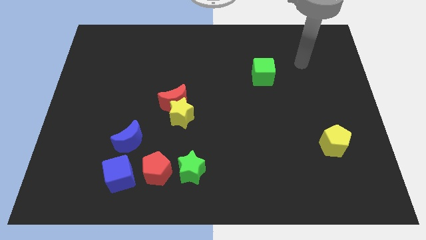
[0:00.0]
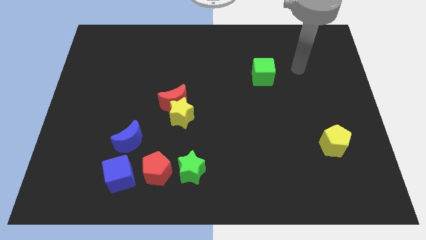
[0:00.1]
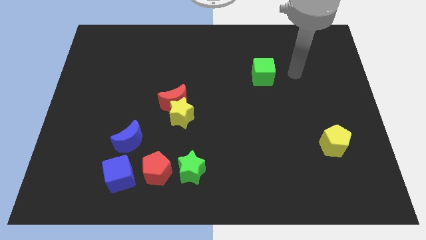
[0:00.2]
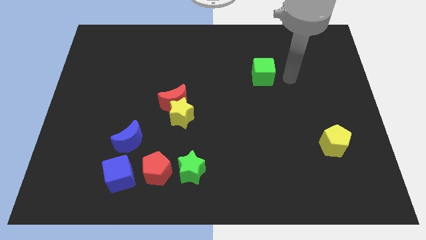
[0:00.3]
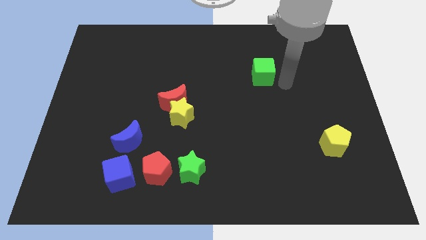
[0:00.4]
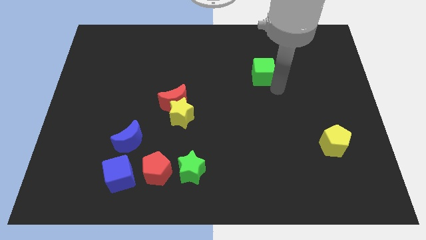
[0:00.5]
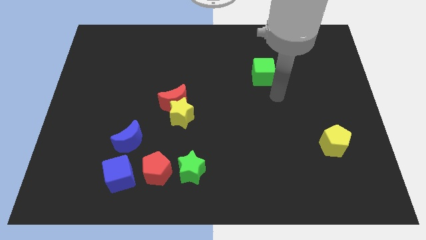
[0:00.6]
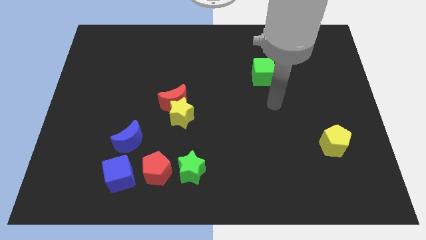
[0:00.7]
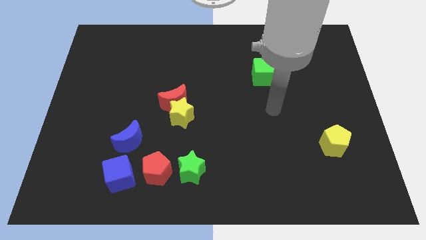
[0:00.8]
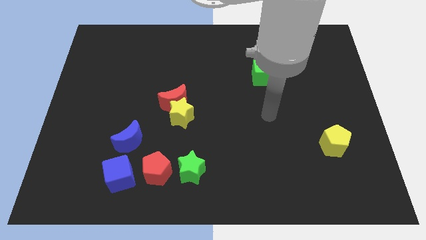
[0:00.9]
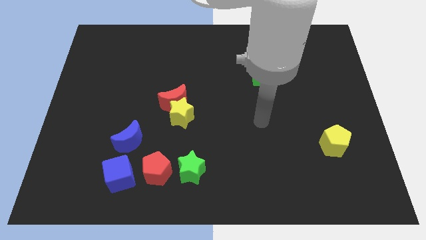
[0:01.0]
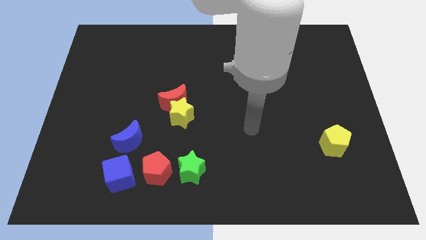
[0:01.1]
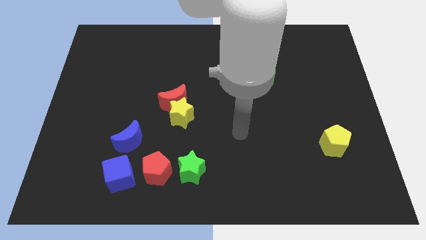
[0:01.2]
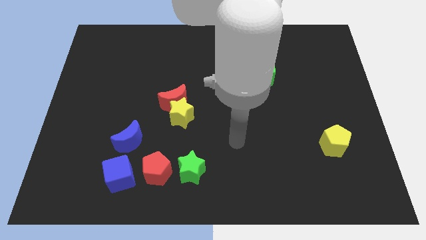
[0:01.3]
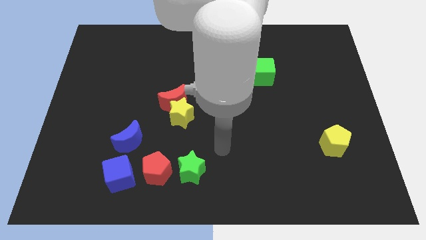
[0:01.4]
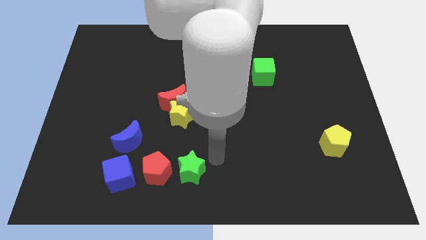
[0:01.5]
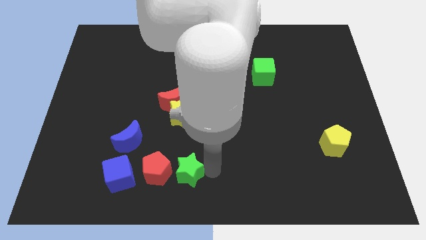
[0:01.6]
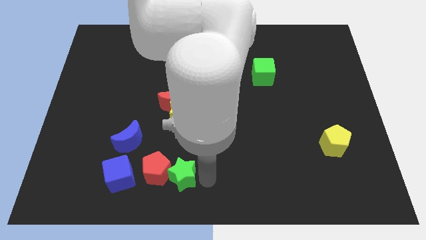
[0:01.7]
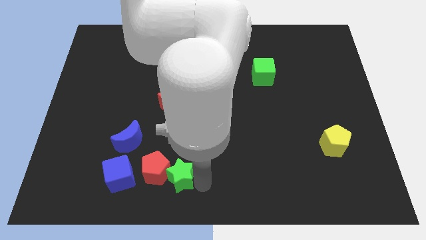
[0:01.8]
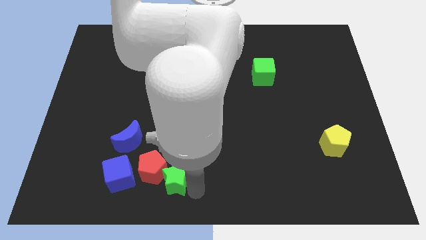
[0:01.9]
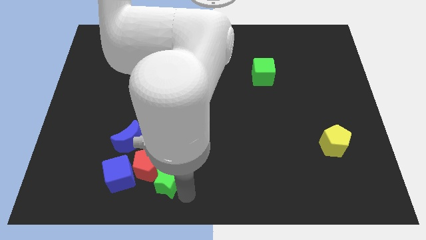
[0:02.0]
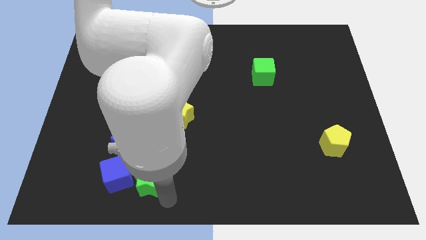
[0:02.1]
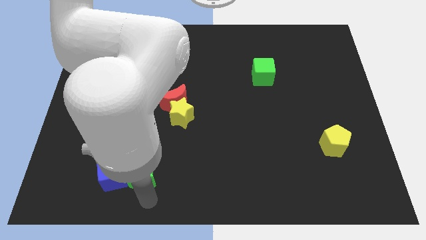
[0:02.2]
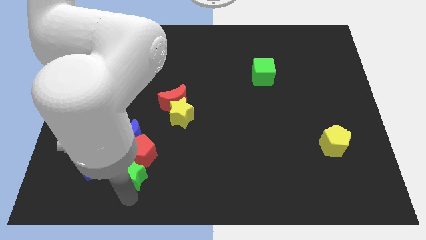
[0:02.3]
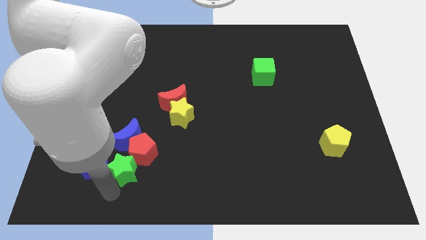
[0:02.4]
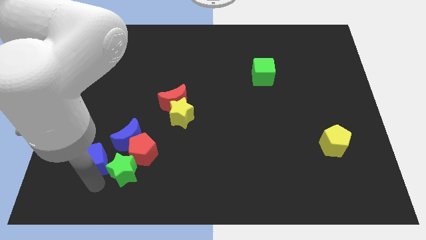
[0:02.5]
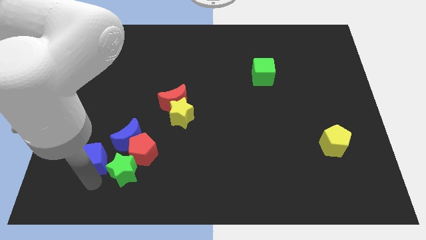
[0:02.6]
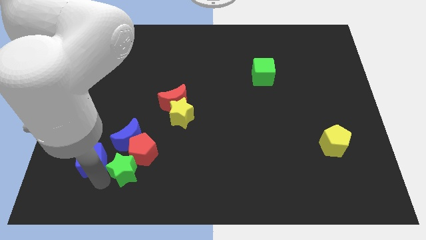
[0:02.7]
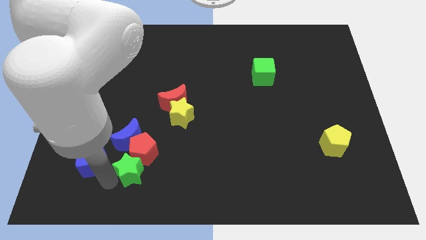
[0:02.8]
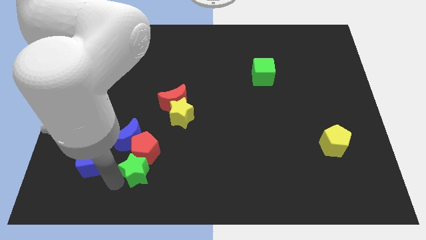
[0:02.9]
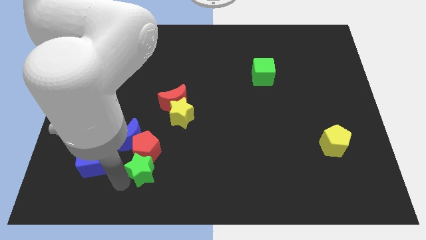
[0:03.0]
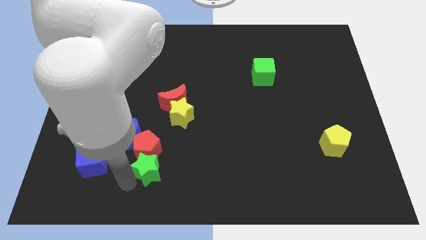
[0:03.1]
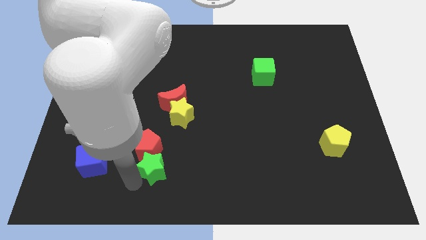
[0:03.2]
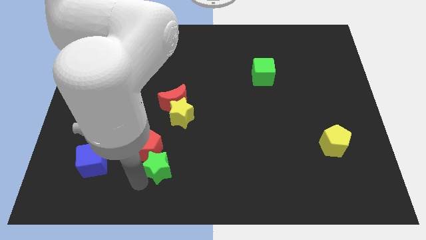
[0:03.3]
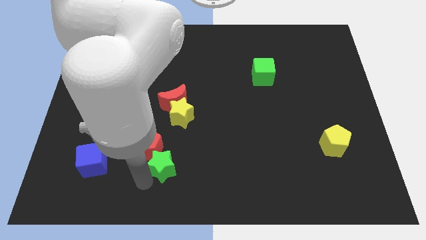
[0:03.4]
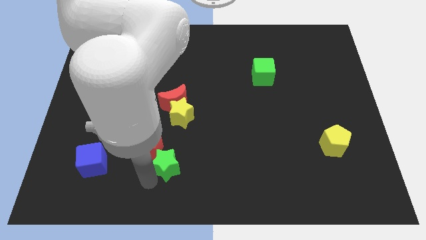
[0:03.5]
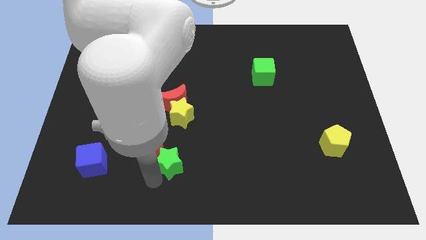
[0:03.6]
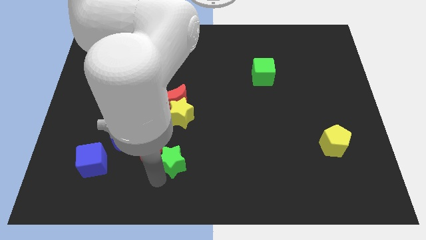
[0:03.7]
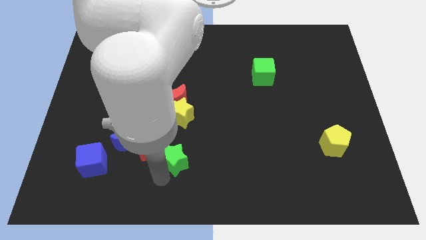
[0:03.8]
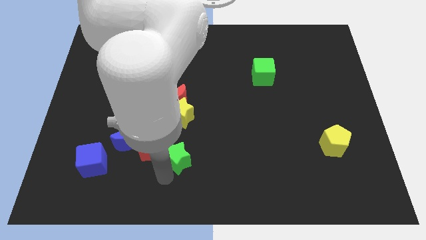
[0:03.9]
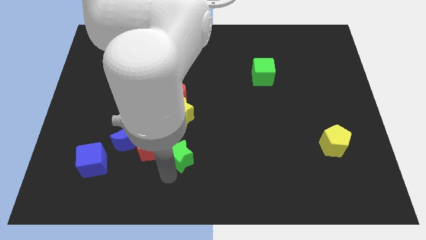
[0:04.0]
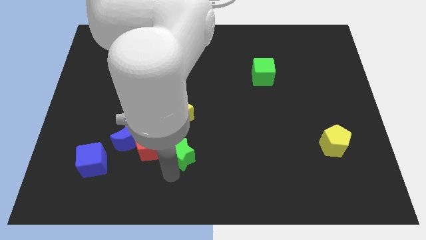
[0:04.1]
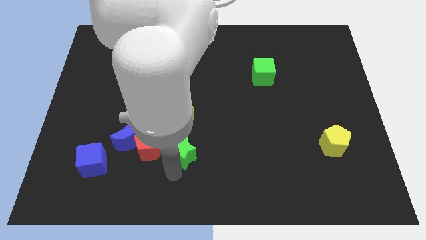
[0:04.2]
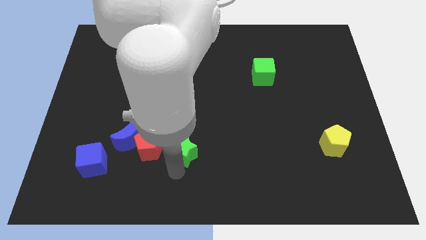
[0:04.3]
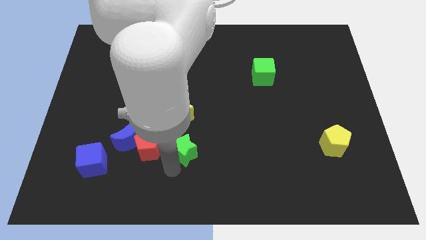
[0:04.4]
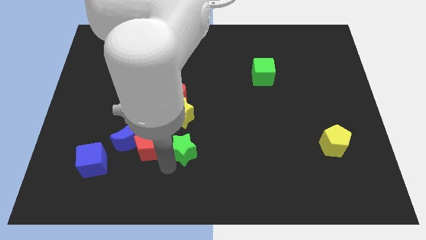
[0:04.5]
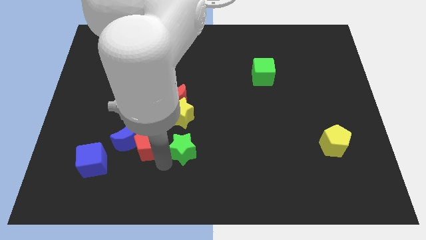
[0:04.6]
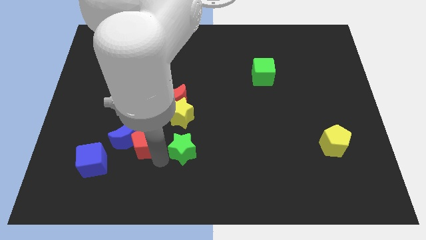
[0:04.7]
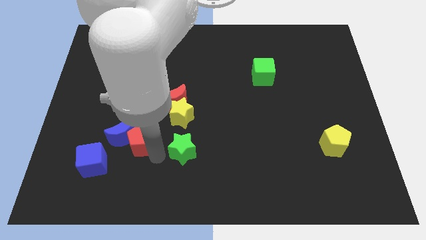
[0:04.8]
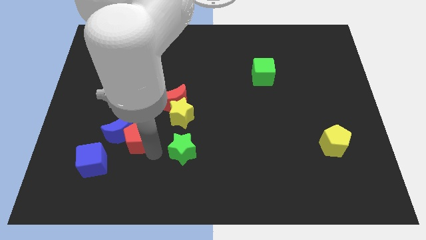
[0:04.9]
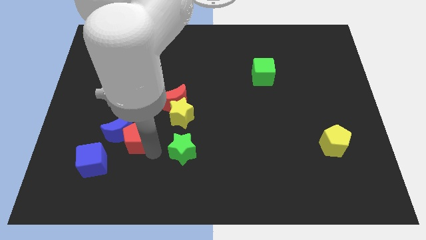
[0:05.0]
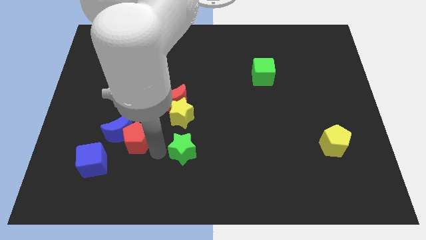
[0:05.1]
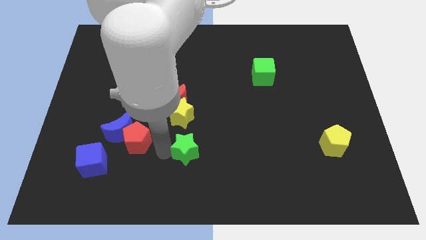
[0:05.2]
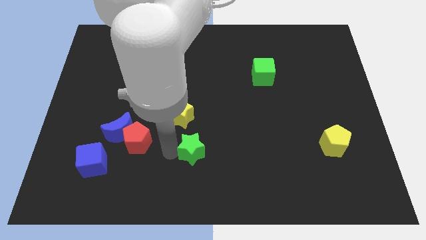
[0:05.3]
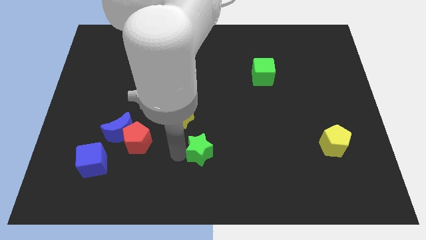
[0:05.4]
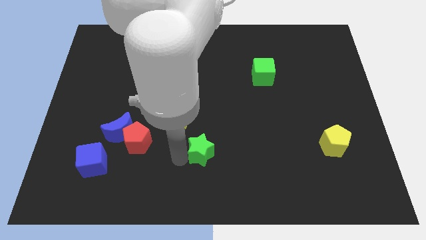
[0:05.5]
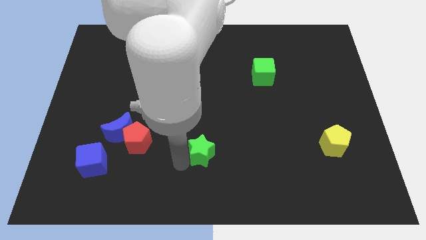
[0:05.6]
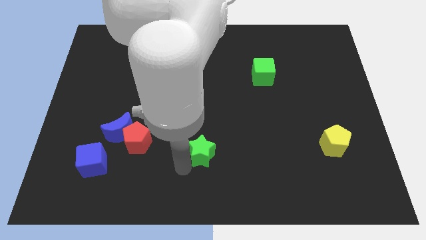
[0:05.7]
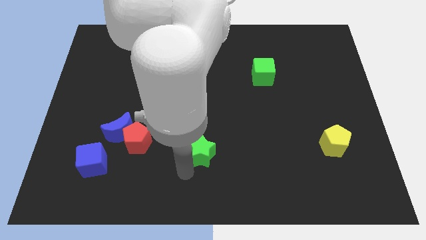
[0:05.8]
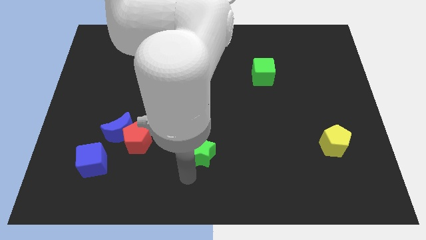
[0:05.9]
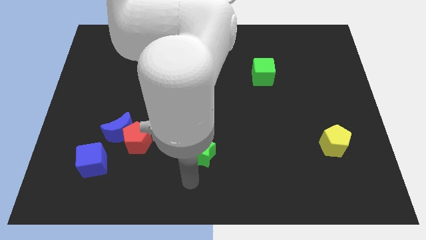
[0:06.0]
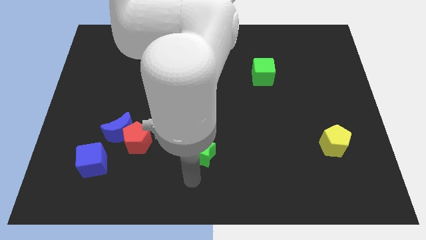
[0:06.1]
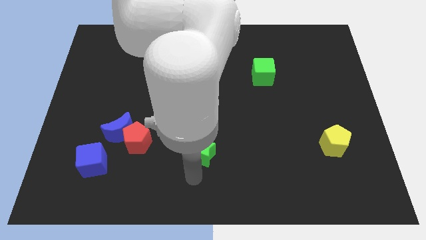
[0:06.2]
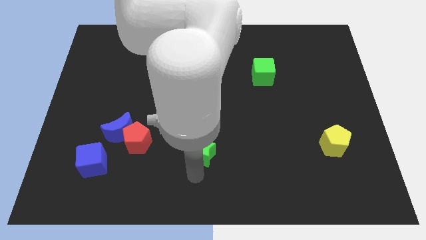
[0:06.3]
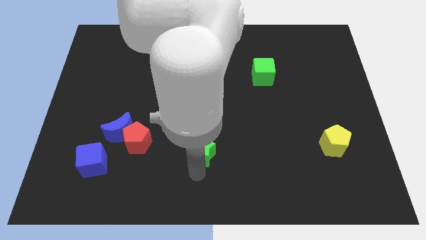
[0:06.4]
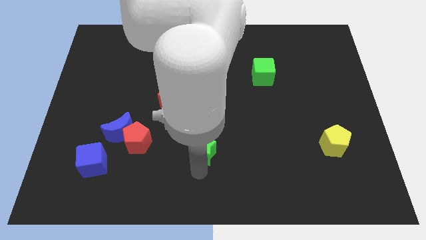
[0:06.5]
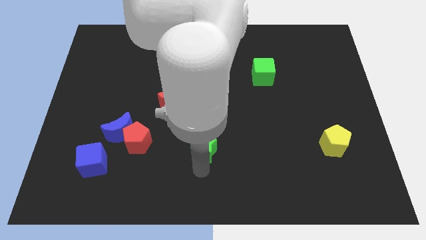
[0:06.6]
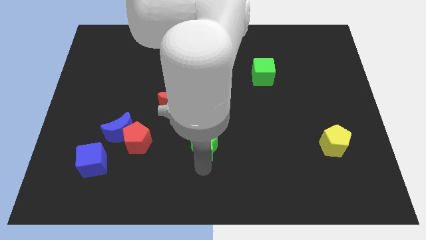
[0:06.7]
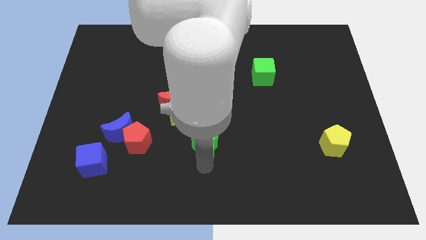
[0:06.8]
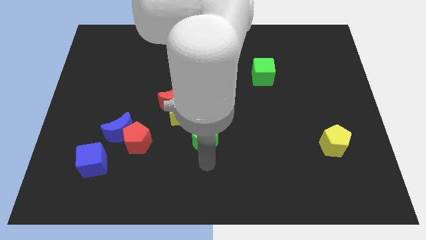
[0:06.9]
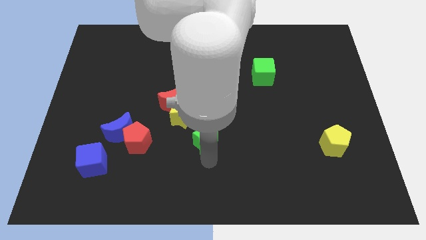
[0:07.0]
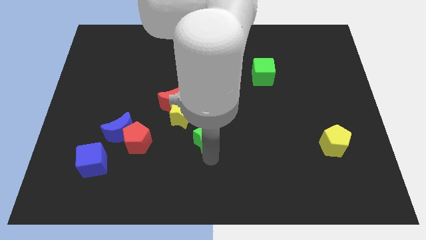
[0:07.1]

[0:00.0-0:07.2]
slightly push the green star up

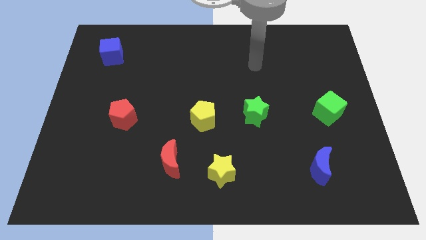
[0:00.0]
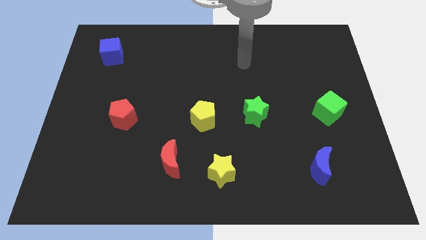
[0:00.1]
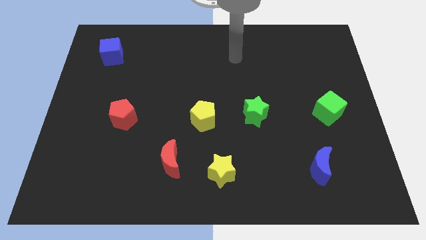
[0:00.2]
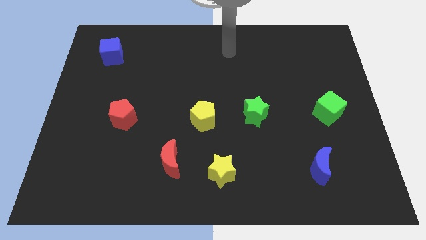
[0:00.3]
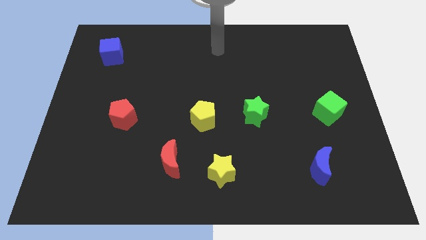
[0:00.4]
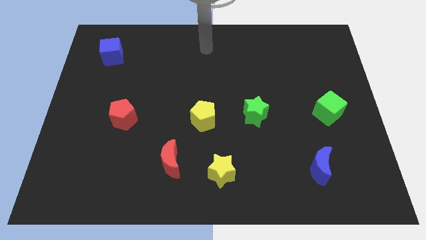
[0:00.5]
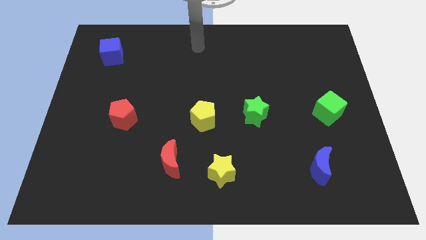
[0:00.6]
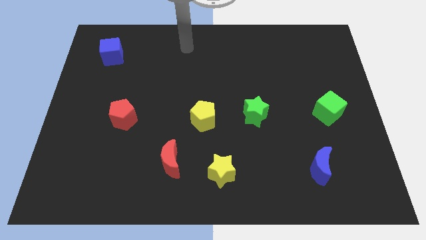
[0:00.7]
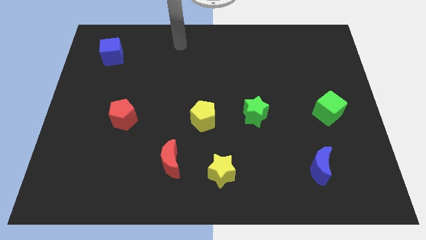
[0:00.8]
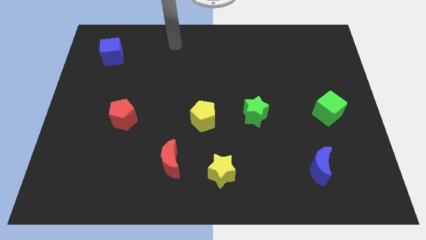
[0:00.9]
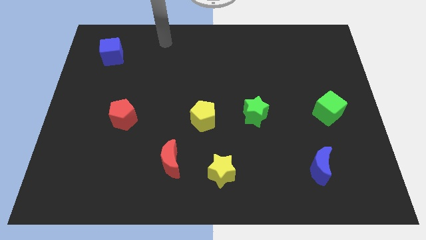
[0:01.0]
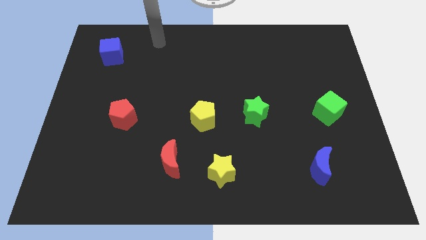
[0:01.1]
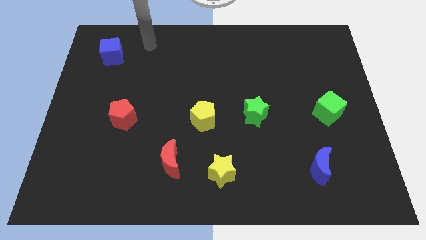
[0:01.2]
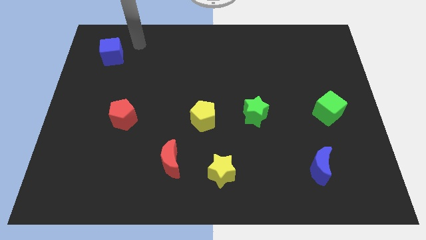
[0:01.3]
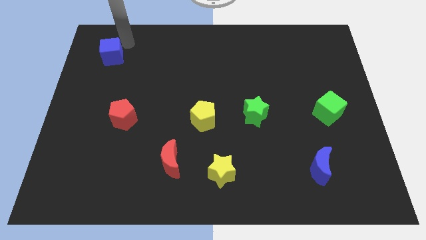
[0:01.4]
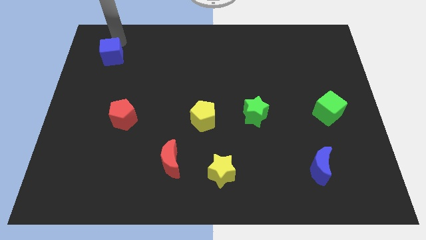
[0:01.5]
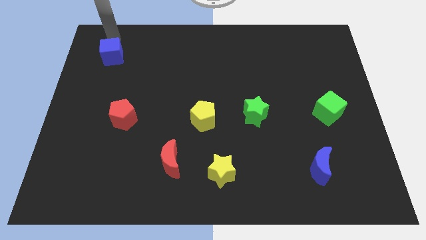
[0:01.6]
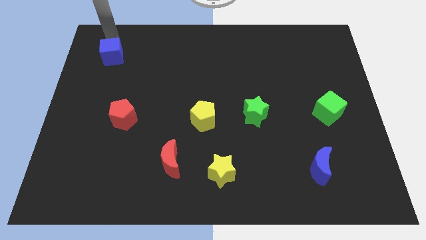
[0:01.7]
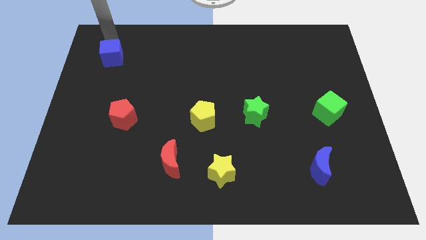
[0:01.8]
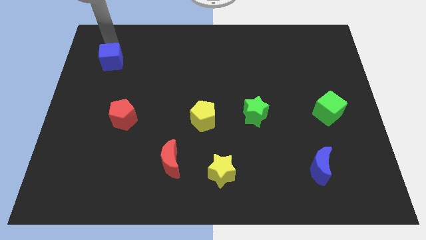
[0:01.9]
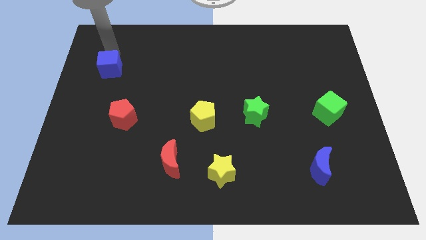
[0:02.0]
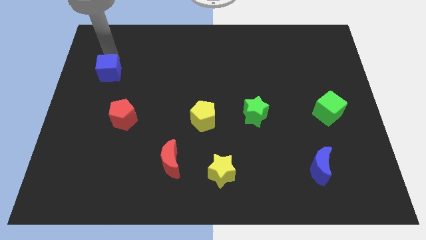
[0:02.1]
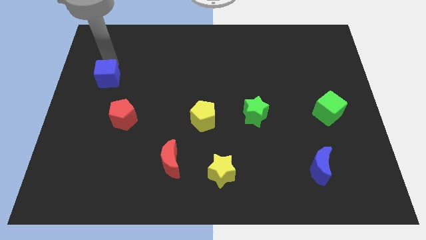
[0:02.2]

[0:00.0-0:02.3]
slide the blue cube a bit down
